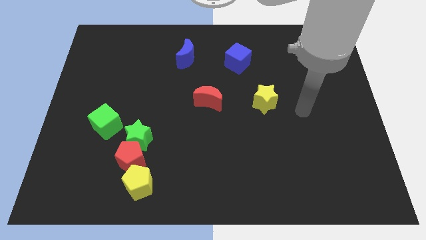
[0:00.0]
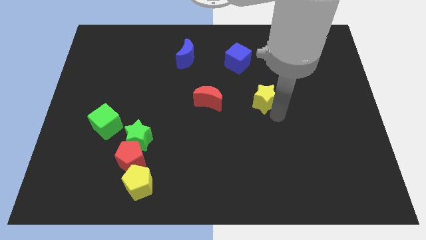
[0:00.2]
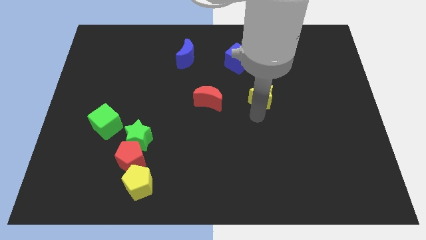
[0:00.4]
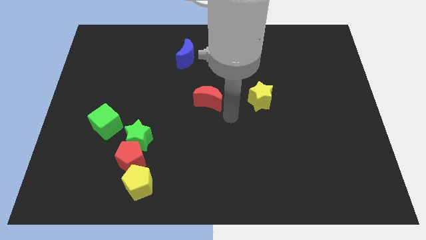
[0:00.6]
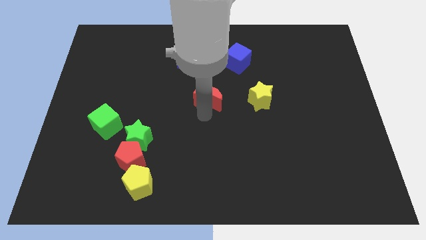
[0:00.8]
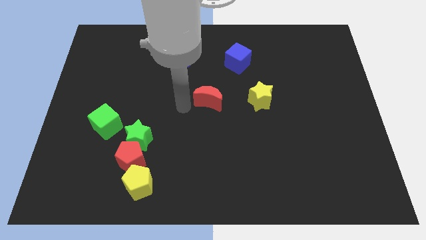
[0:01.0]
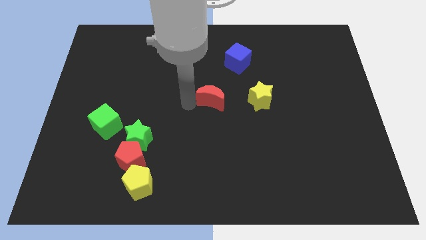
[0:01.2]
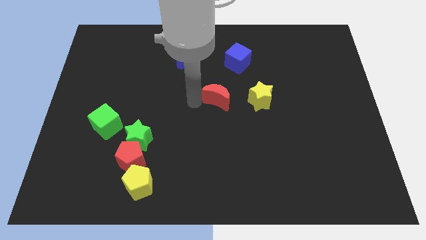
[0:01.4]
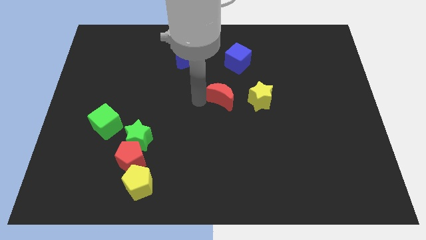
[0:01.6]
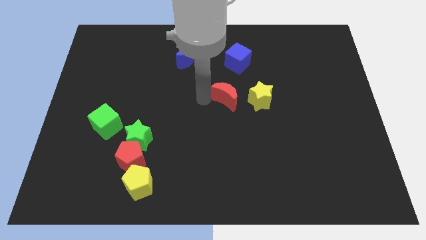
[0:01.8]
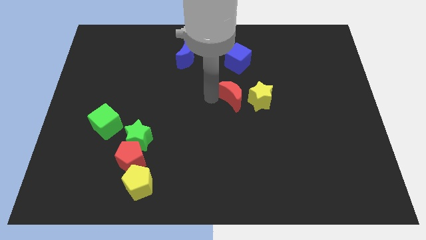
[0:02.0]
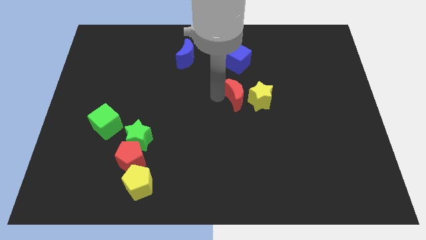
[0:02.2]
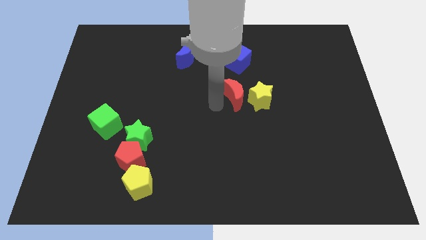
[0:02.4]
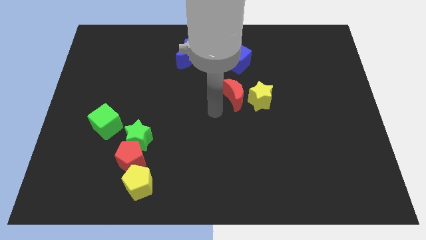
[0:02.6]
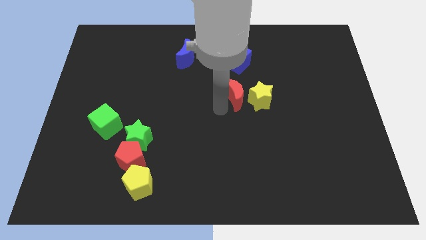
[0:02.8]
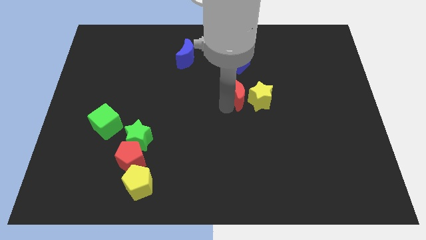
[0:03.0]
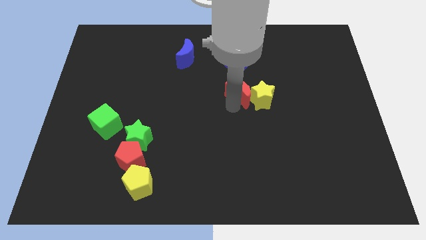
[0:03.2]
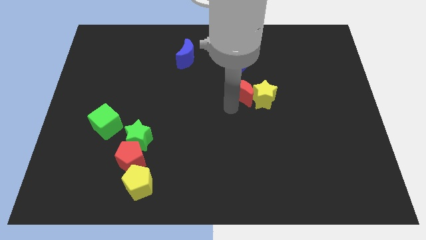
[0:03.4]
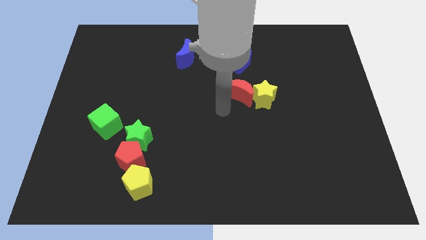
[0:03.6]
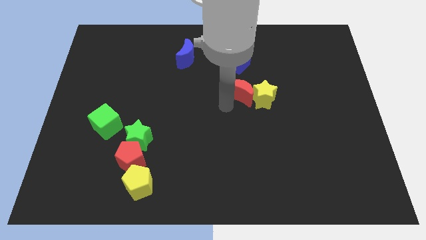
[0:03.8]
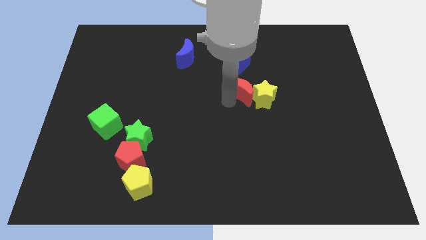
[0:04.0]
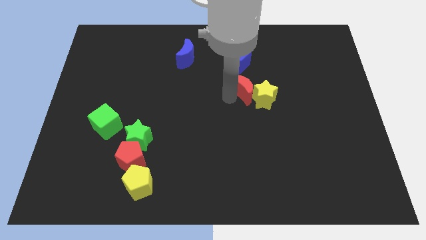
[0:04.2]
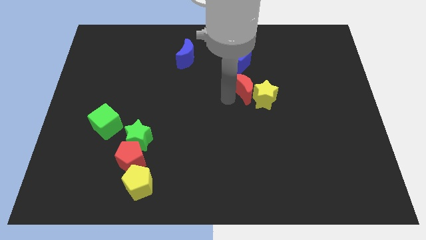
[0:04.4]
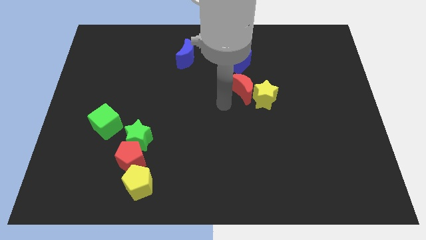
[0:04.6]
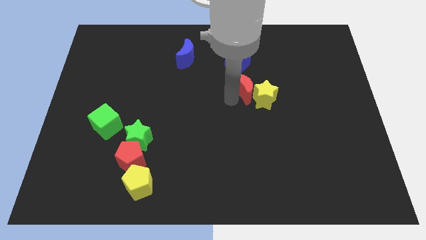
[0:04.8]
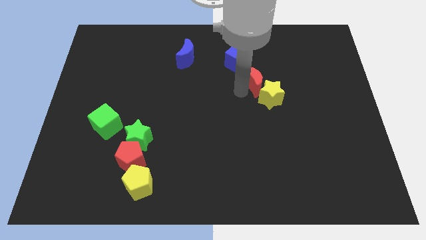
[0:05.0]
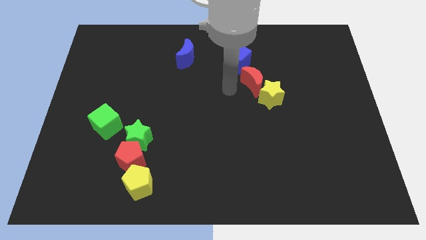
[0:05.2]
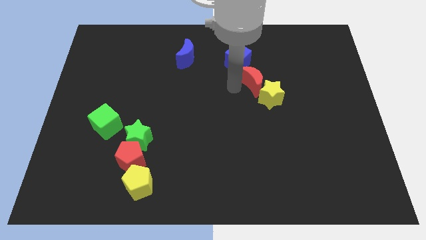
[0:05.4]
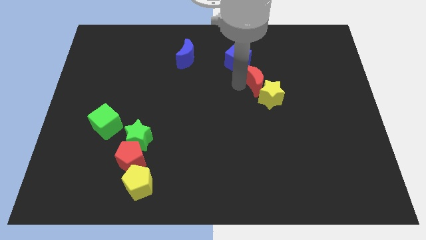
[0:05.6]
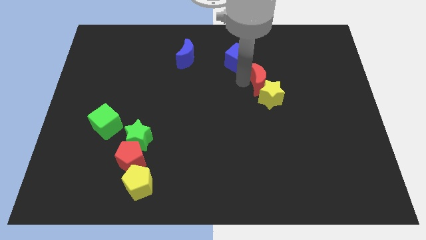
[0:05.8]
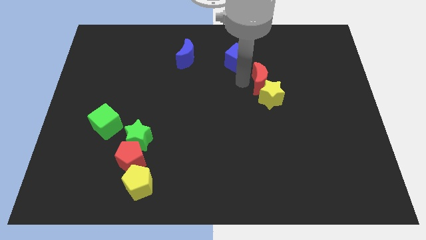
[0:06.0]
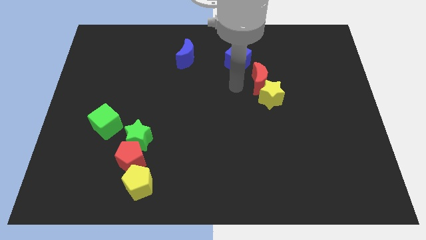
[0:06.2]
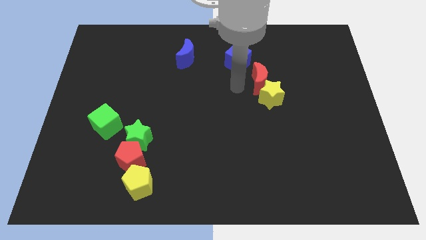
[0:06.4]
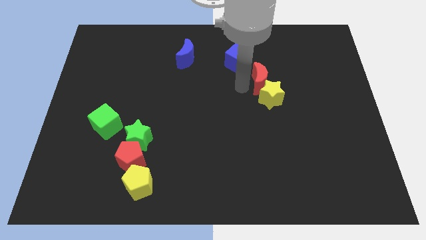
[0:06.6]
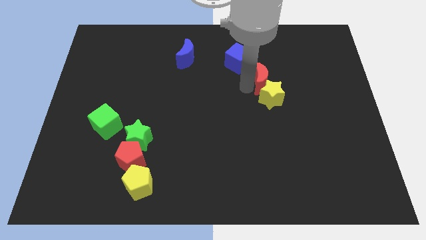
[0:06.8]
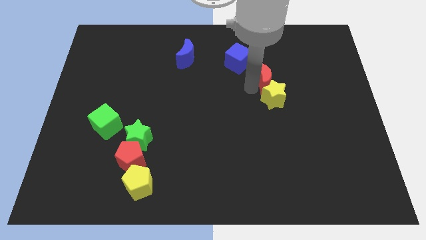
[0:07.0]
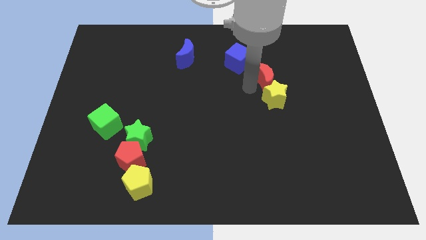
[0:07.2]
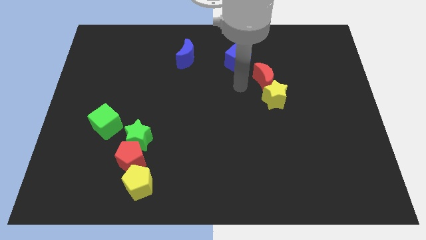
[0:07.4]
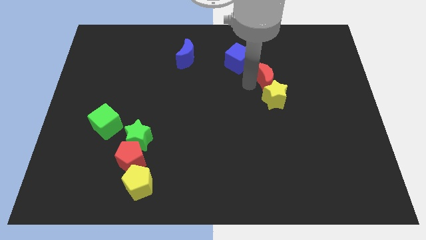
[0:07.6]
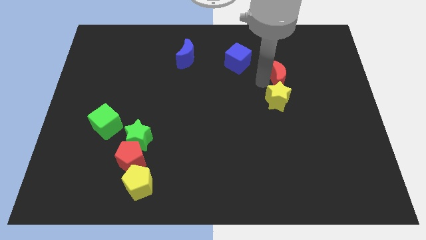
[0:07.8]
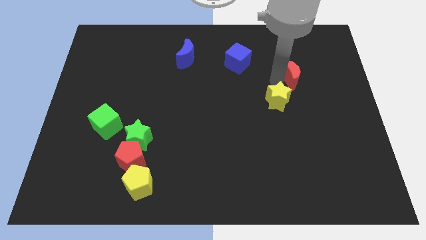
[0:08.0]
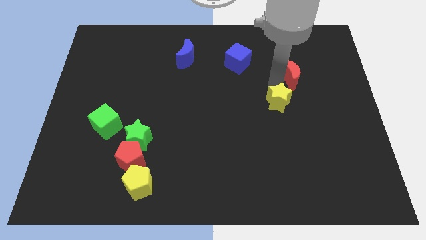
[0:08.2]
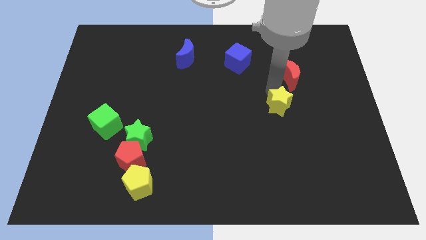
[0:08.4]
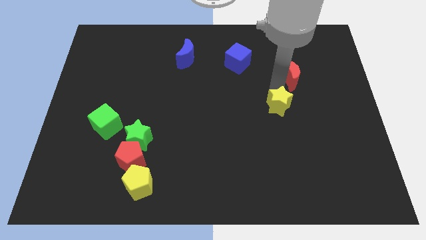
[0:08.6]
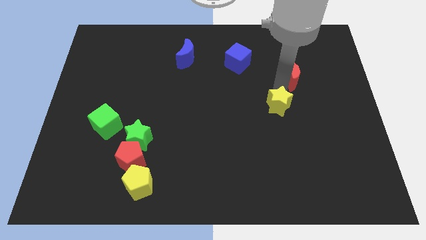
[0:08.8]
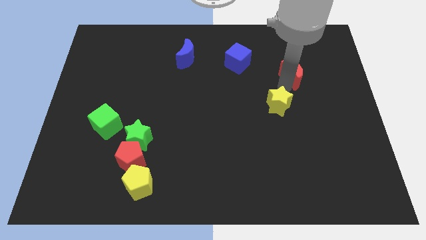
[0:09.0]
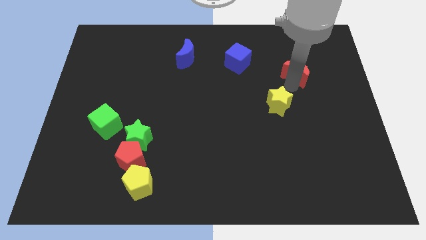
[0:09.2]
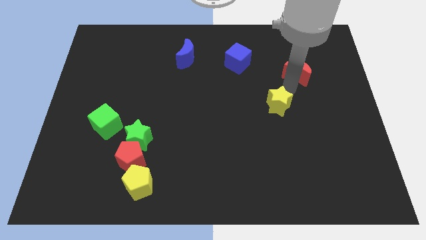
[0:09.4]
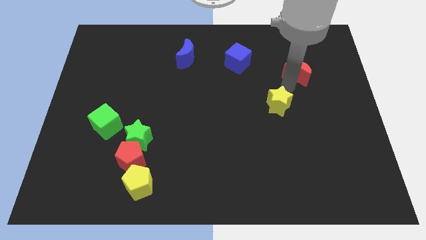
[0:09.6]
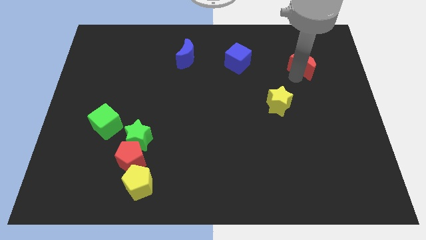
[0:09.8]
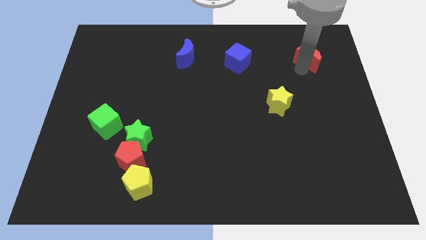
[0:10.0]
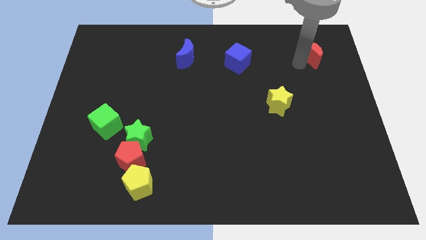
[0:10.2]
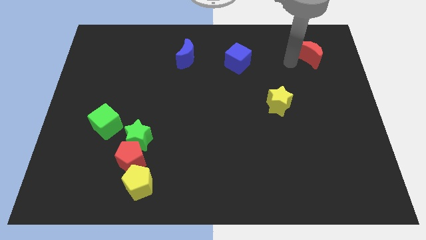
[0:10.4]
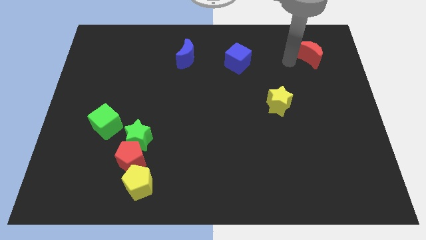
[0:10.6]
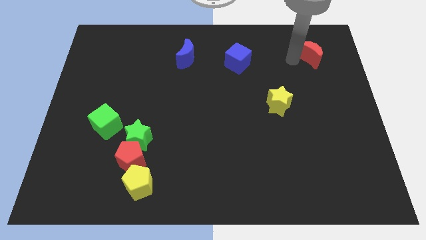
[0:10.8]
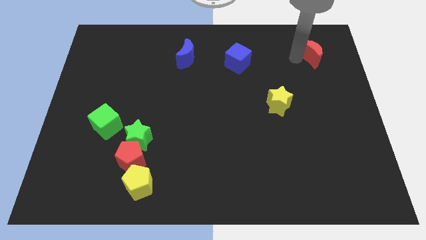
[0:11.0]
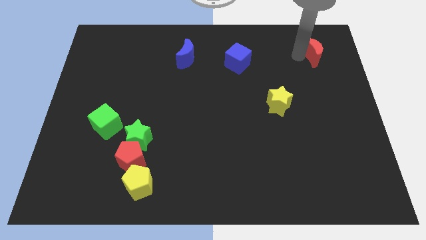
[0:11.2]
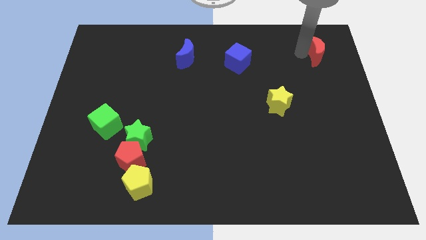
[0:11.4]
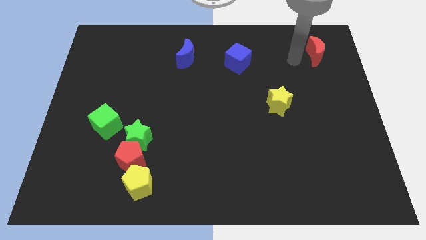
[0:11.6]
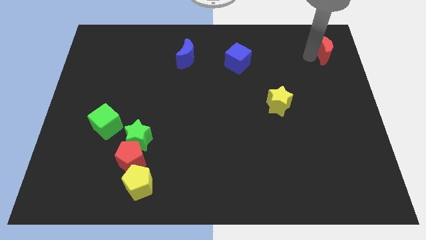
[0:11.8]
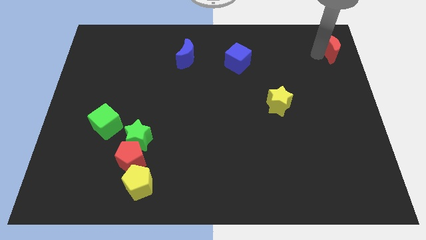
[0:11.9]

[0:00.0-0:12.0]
put the red moon to the top right corner

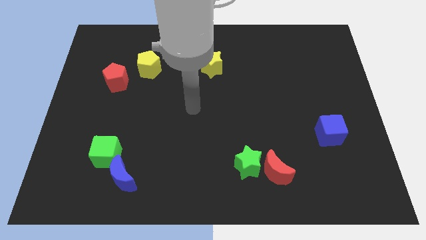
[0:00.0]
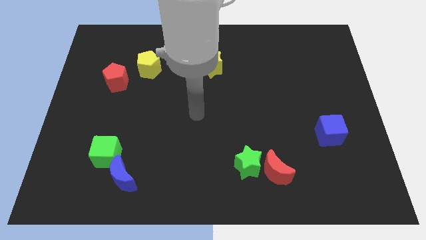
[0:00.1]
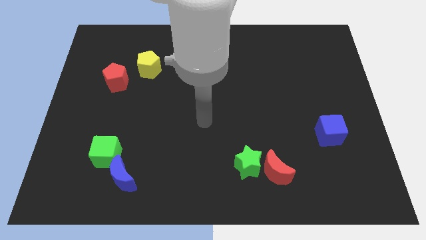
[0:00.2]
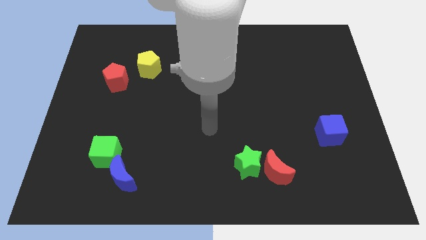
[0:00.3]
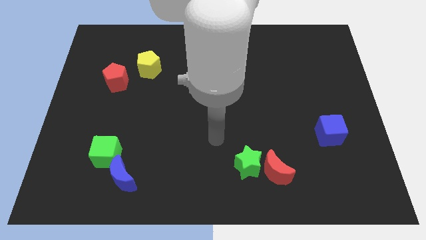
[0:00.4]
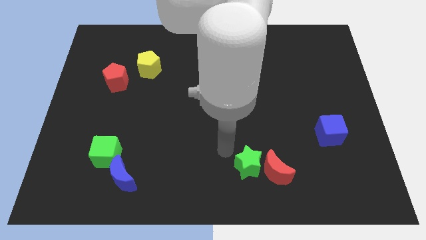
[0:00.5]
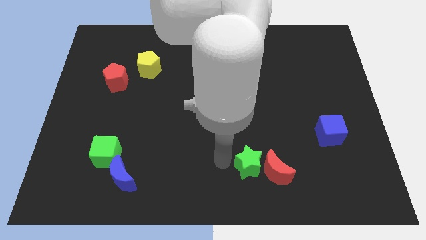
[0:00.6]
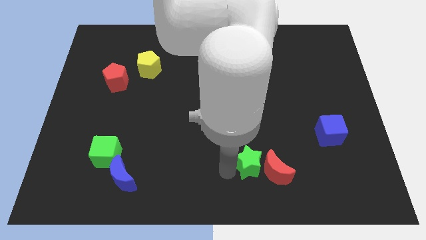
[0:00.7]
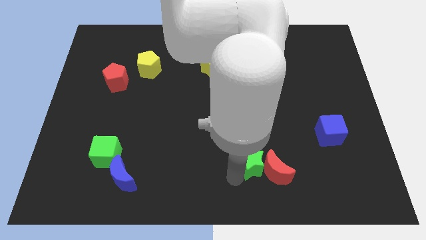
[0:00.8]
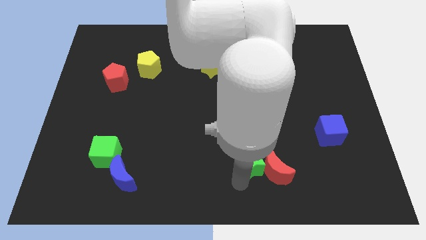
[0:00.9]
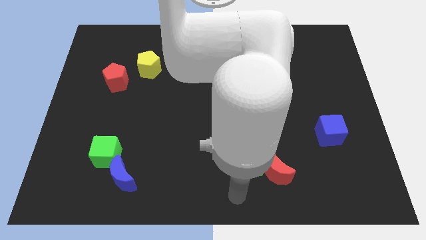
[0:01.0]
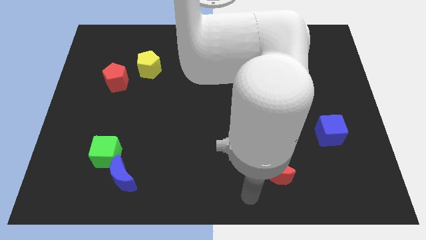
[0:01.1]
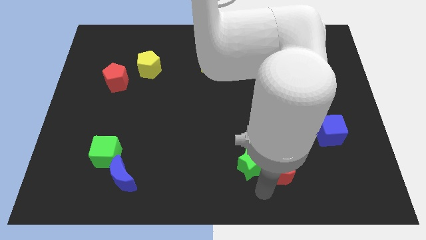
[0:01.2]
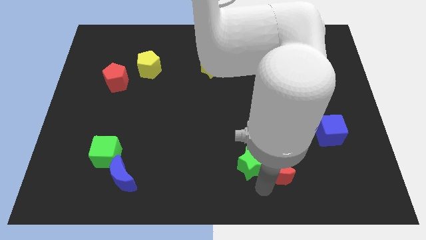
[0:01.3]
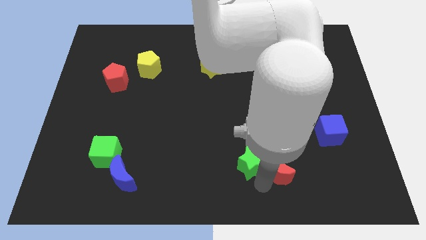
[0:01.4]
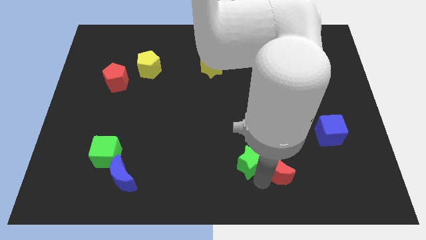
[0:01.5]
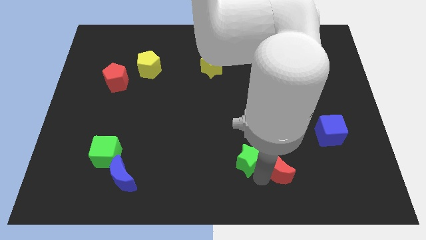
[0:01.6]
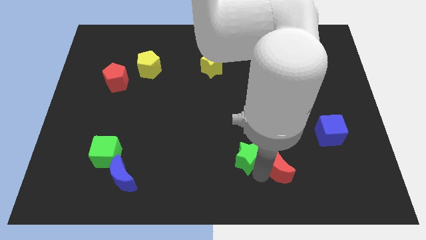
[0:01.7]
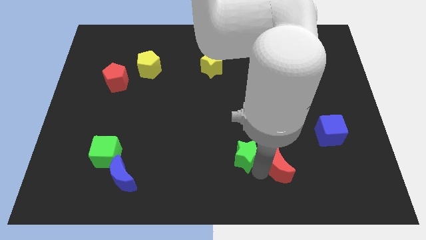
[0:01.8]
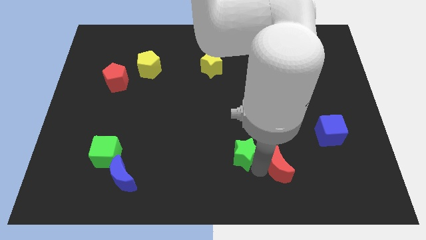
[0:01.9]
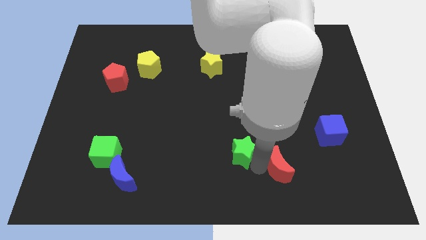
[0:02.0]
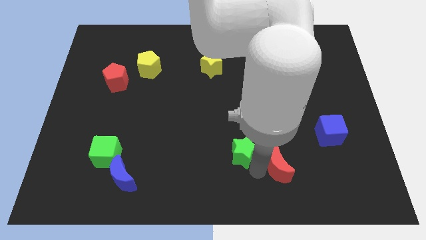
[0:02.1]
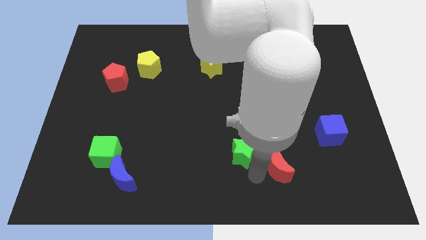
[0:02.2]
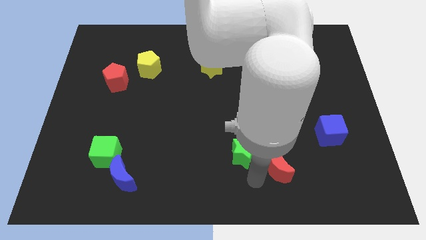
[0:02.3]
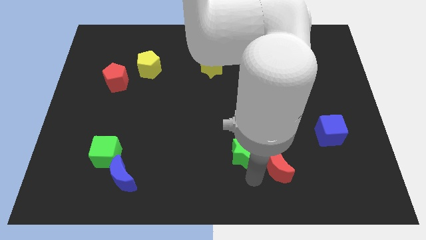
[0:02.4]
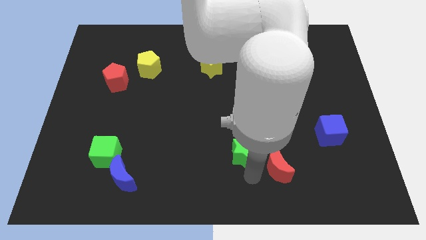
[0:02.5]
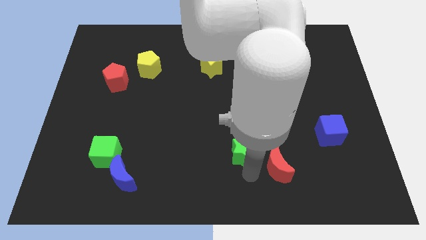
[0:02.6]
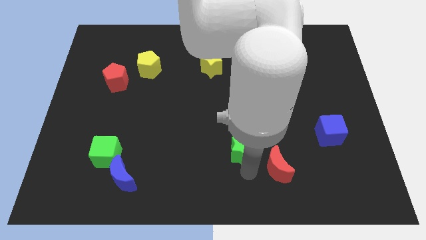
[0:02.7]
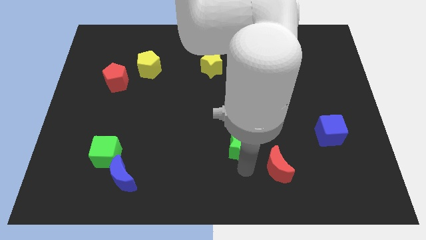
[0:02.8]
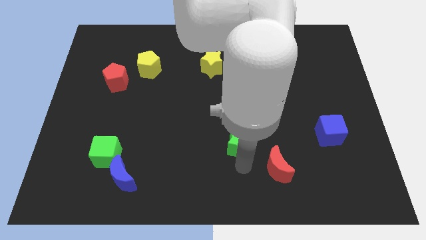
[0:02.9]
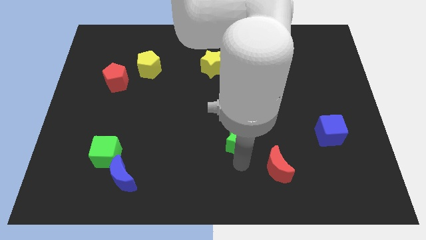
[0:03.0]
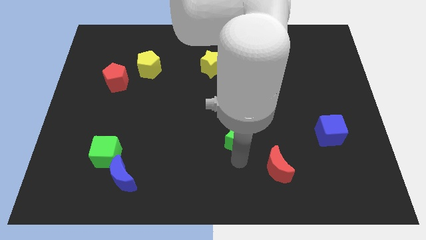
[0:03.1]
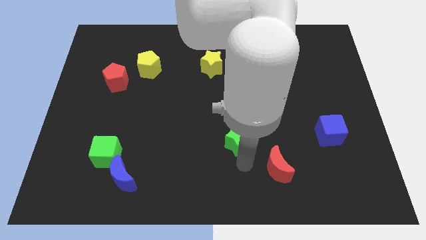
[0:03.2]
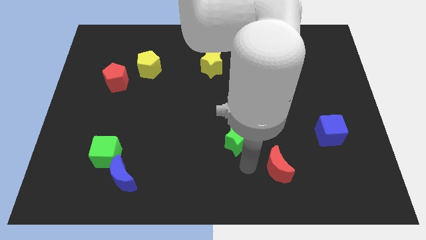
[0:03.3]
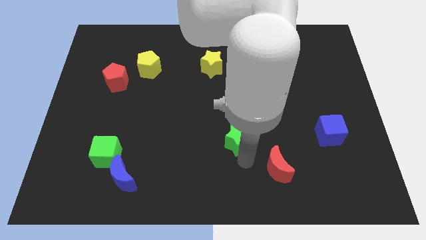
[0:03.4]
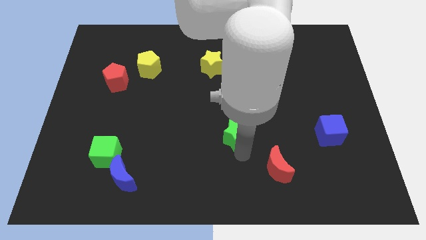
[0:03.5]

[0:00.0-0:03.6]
slide the green star to the middle of the board
